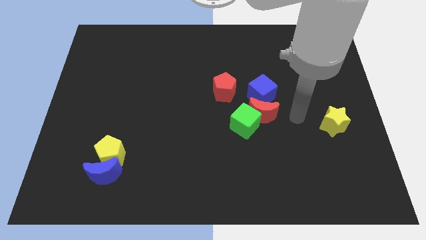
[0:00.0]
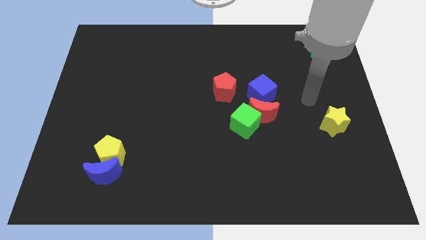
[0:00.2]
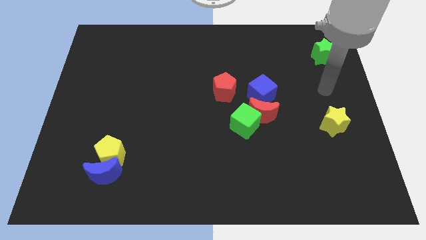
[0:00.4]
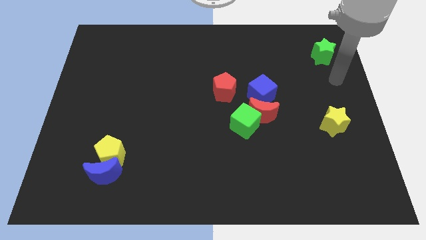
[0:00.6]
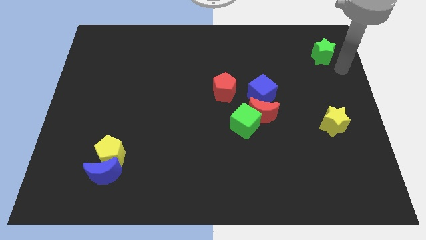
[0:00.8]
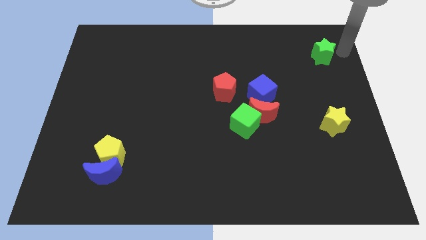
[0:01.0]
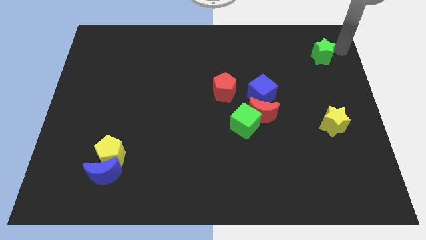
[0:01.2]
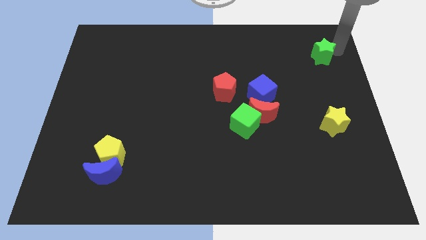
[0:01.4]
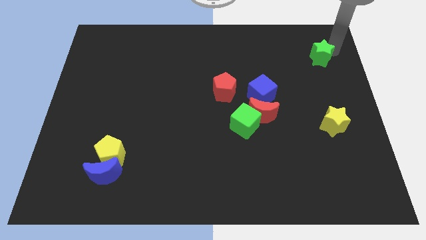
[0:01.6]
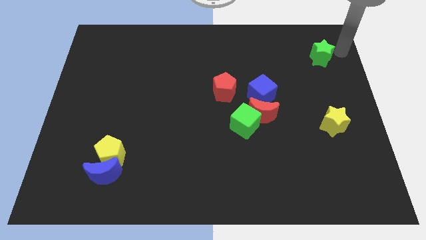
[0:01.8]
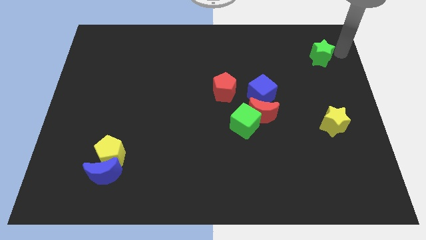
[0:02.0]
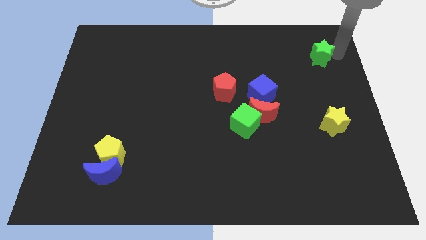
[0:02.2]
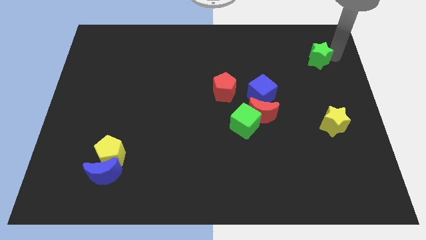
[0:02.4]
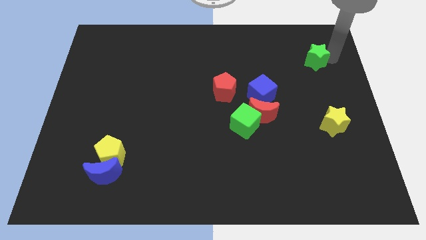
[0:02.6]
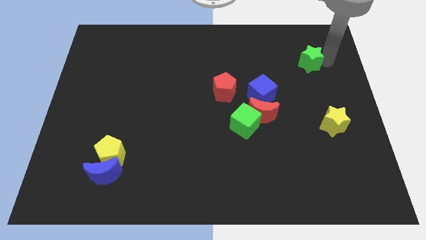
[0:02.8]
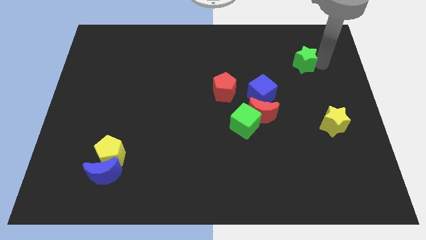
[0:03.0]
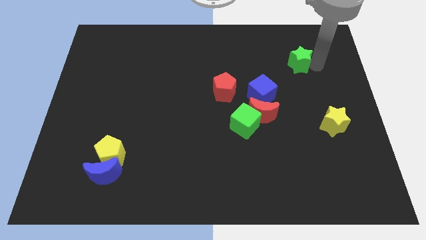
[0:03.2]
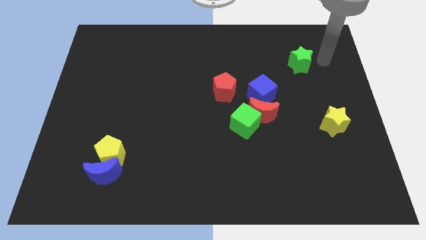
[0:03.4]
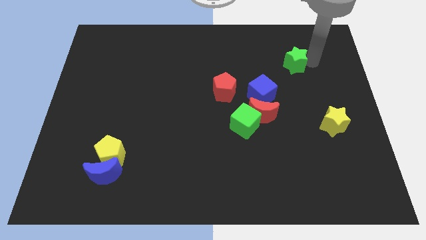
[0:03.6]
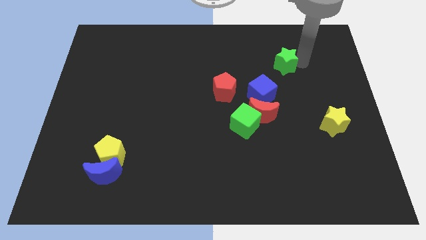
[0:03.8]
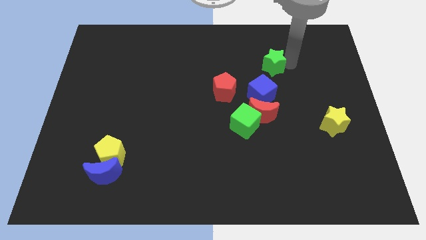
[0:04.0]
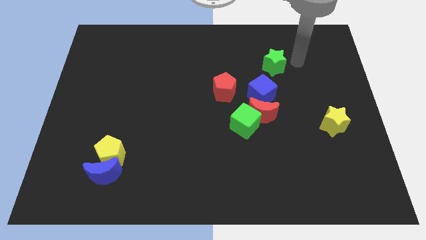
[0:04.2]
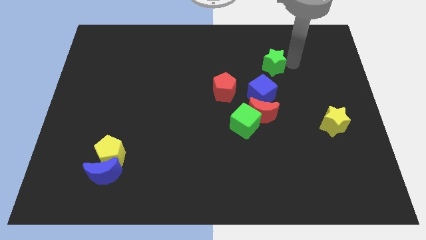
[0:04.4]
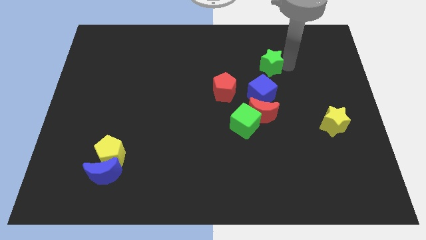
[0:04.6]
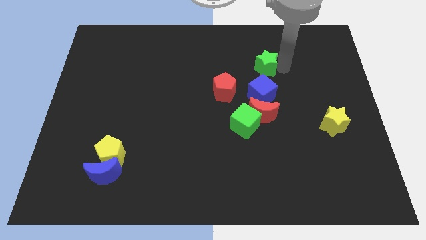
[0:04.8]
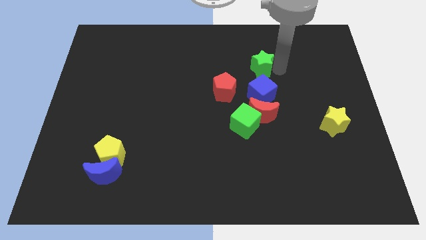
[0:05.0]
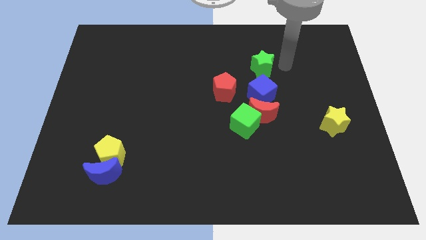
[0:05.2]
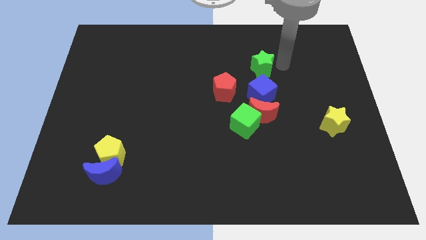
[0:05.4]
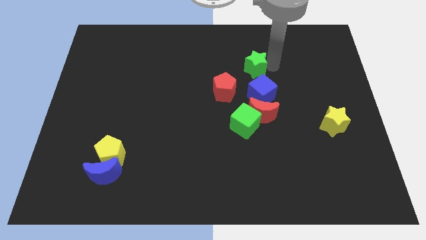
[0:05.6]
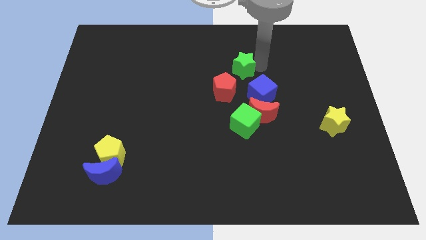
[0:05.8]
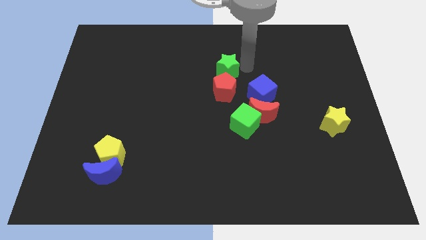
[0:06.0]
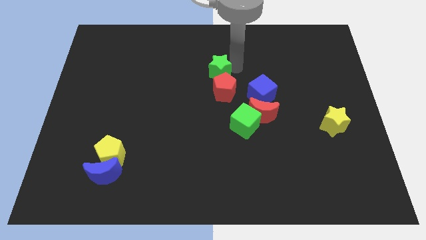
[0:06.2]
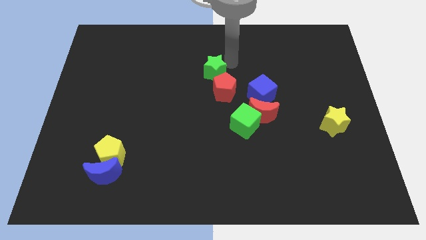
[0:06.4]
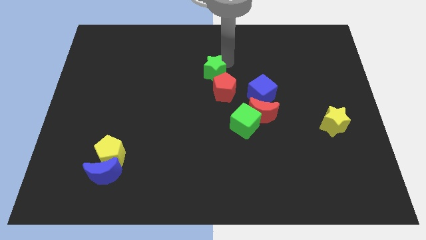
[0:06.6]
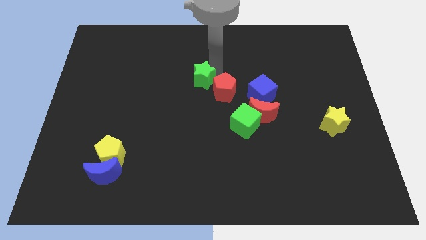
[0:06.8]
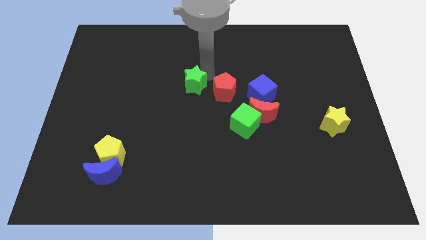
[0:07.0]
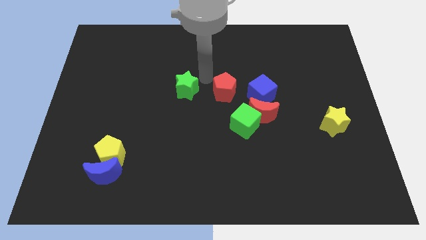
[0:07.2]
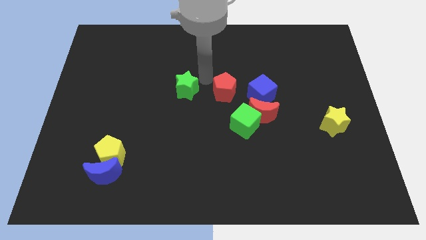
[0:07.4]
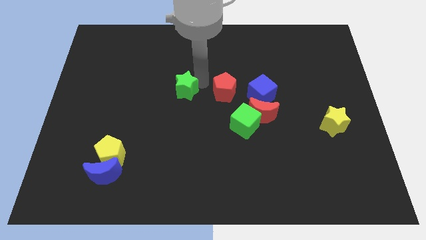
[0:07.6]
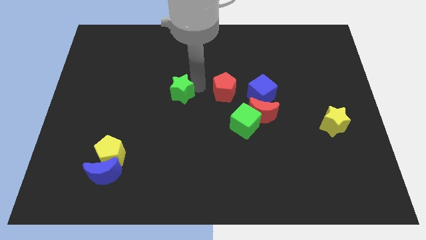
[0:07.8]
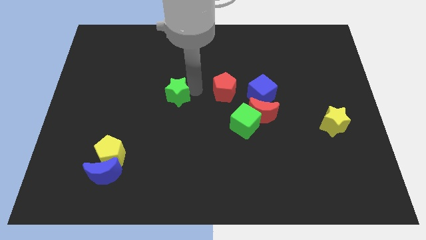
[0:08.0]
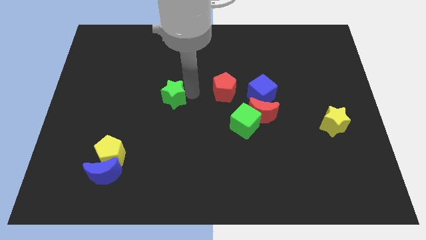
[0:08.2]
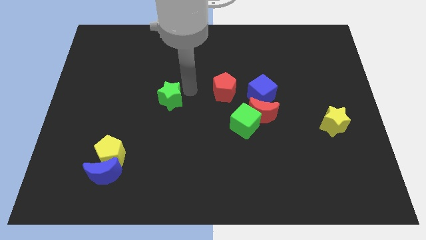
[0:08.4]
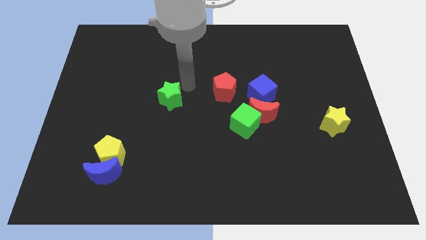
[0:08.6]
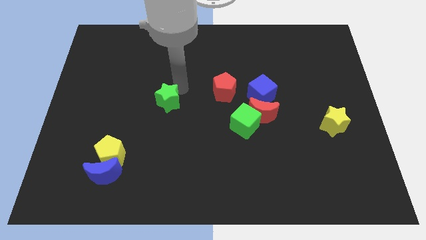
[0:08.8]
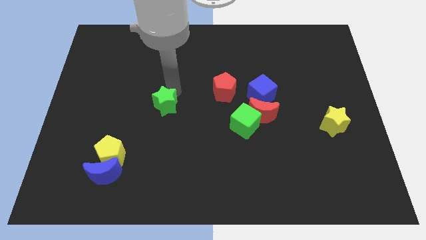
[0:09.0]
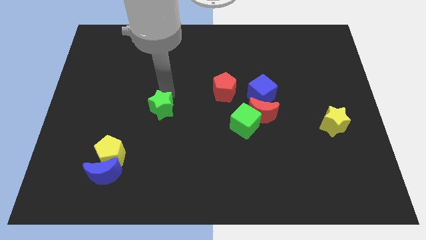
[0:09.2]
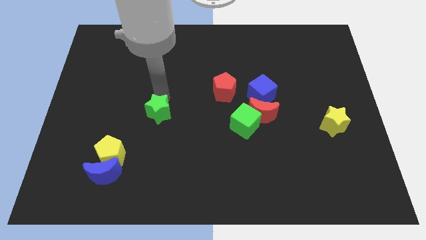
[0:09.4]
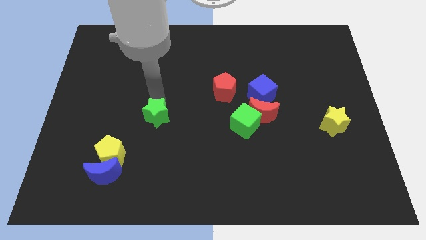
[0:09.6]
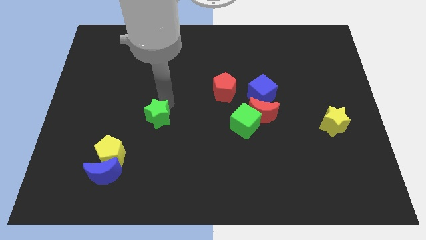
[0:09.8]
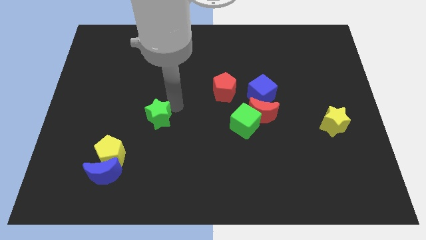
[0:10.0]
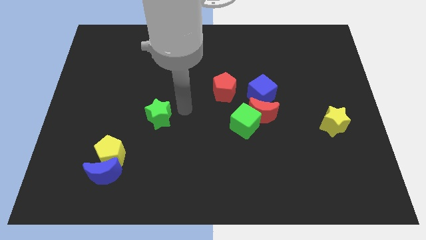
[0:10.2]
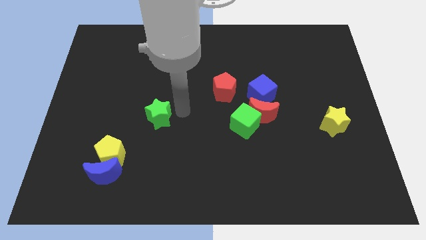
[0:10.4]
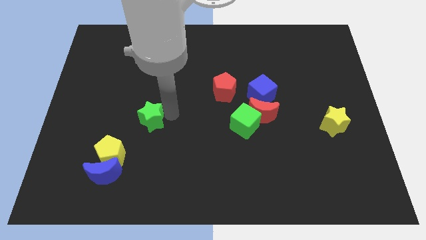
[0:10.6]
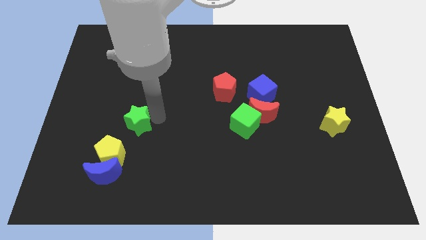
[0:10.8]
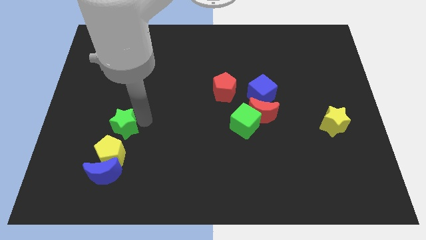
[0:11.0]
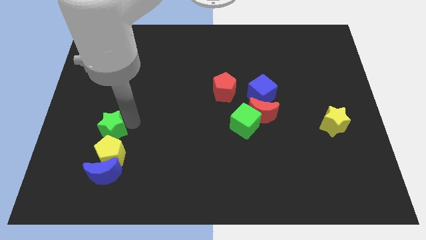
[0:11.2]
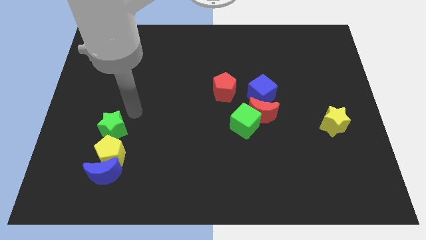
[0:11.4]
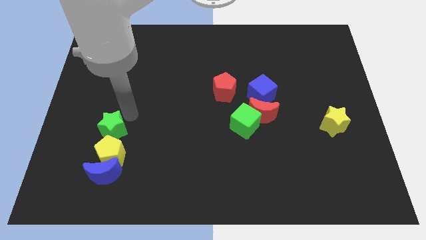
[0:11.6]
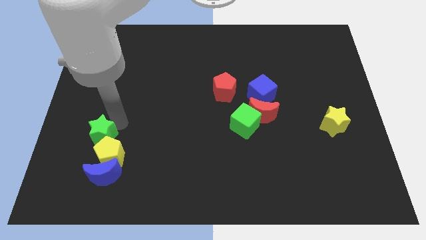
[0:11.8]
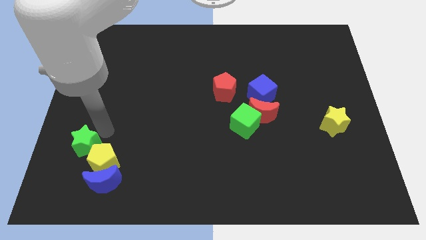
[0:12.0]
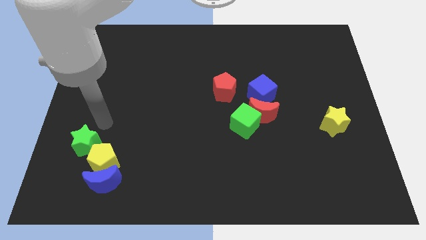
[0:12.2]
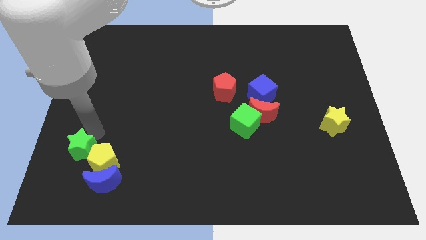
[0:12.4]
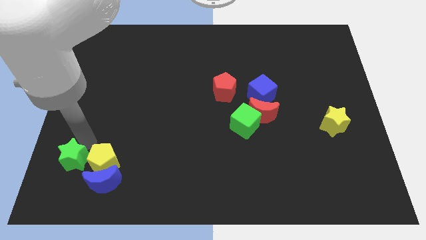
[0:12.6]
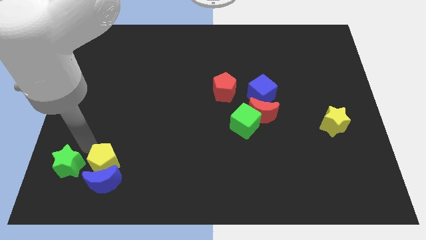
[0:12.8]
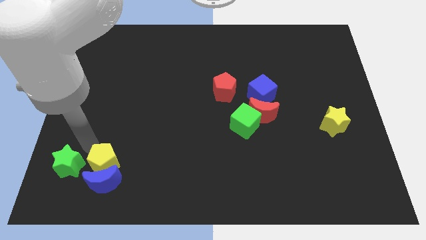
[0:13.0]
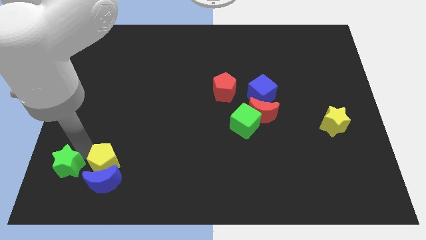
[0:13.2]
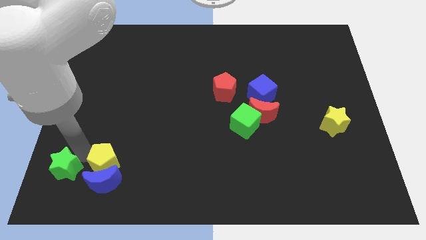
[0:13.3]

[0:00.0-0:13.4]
push the green star to the bottom left

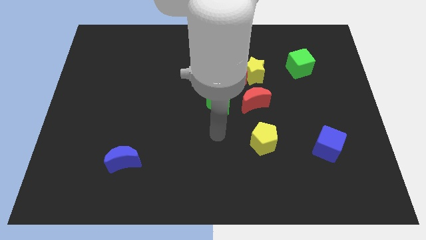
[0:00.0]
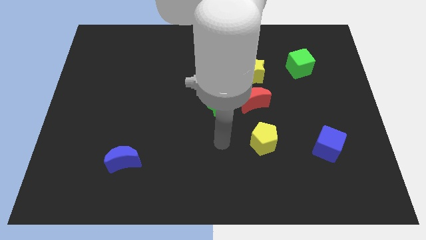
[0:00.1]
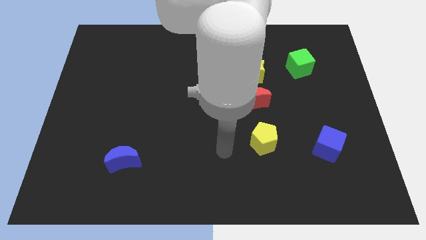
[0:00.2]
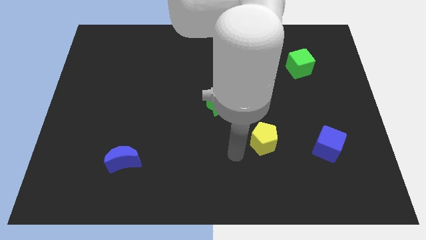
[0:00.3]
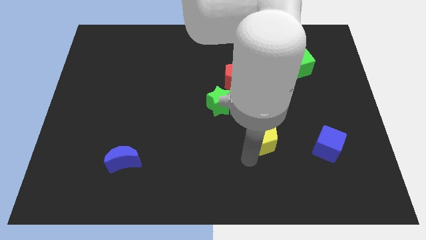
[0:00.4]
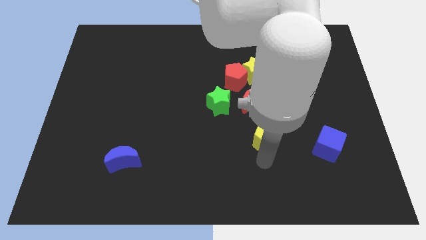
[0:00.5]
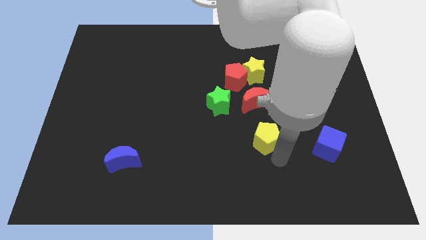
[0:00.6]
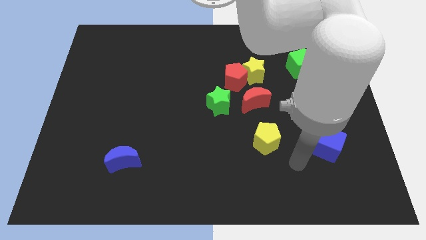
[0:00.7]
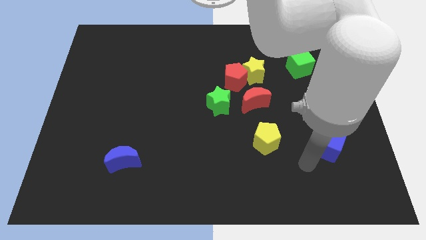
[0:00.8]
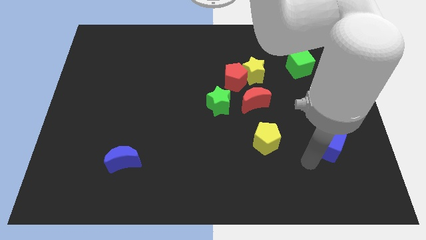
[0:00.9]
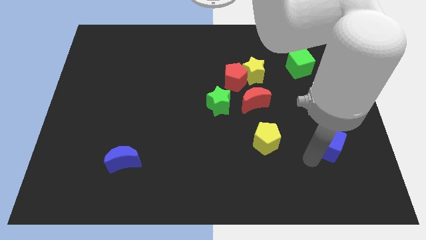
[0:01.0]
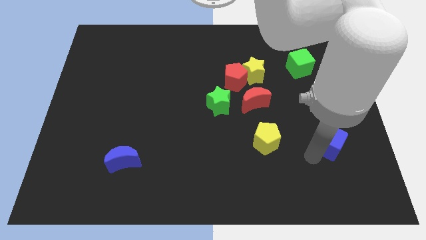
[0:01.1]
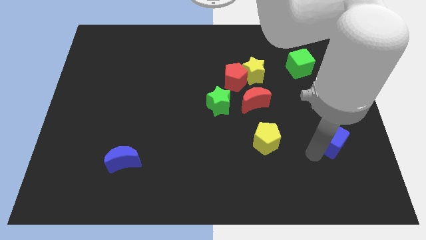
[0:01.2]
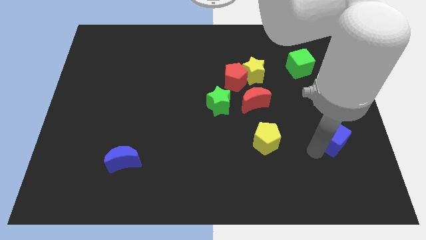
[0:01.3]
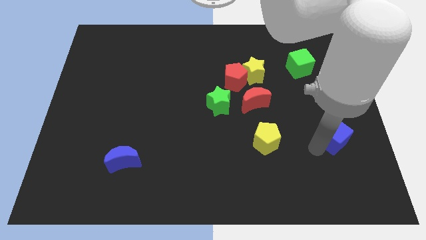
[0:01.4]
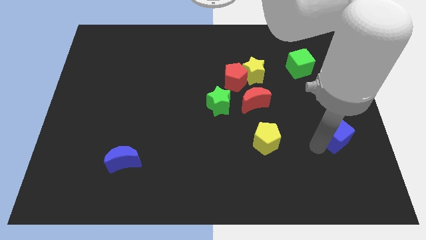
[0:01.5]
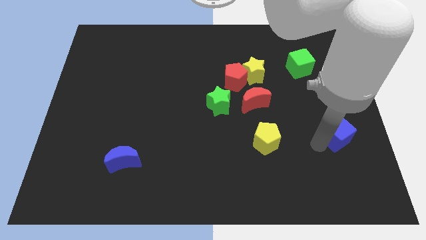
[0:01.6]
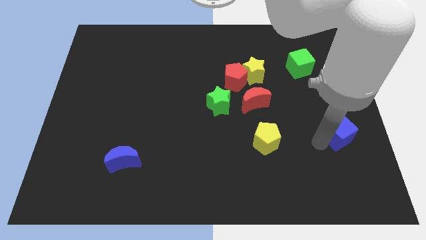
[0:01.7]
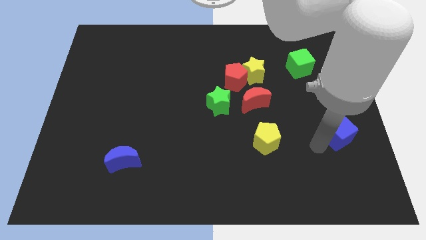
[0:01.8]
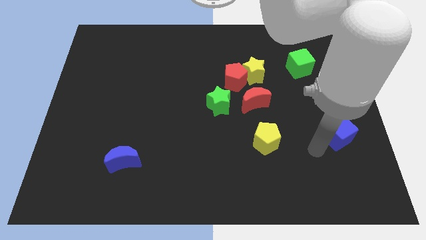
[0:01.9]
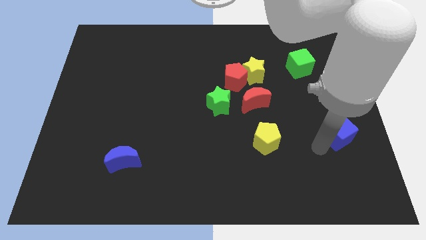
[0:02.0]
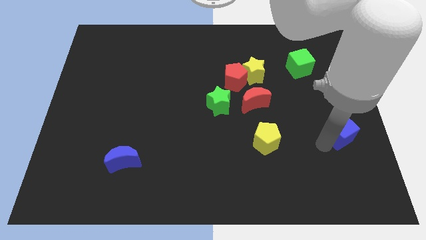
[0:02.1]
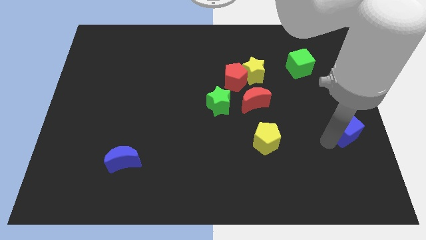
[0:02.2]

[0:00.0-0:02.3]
move the blue cube to the right side
